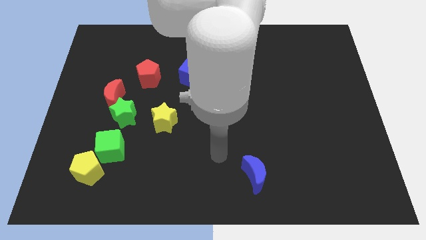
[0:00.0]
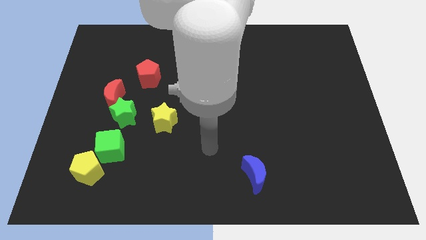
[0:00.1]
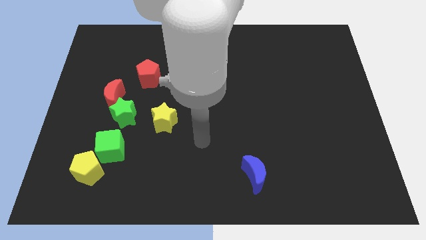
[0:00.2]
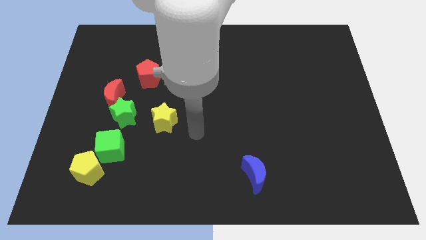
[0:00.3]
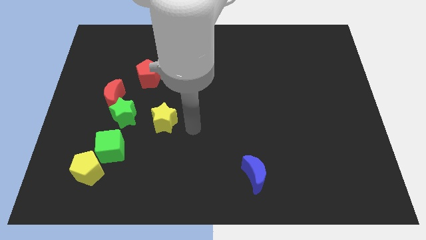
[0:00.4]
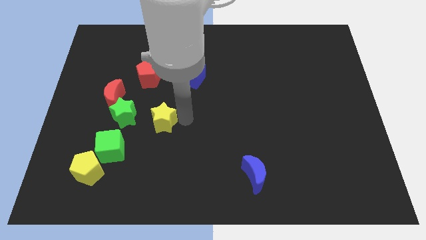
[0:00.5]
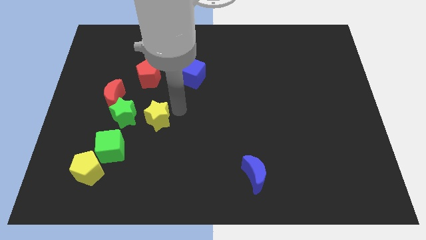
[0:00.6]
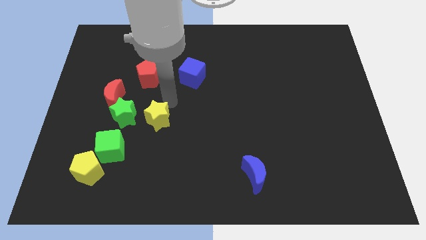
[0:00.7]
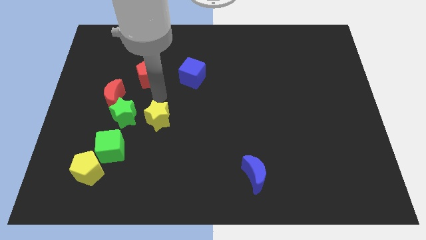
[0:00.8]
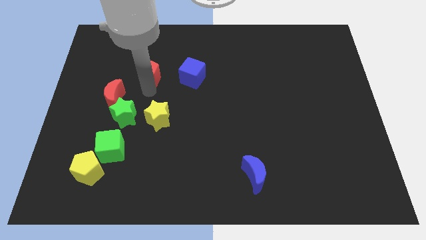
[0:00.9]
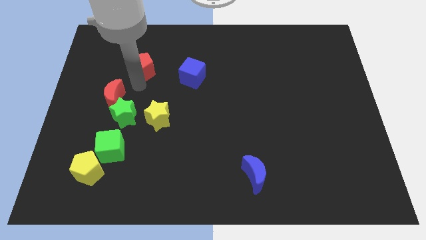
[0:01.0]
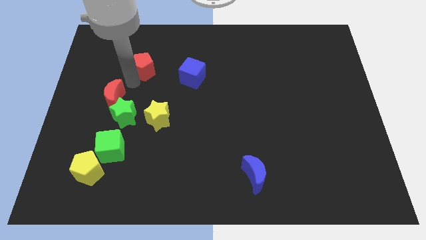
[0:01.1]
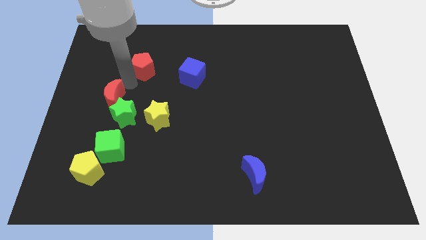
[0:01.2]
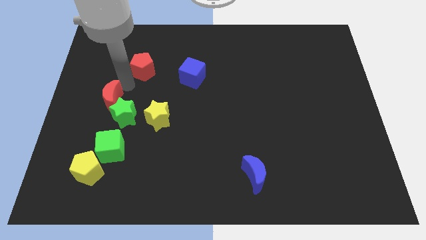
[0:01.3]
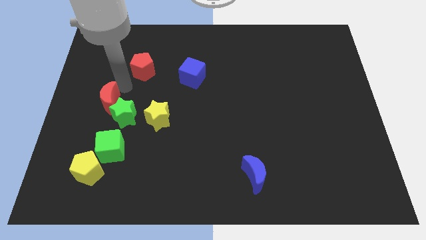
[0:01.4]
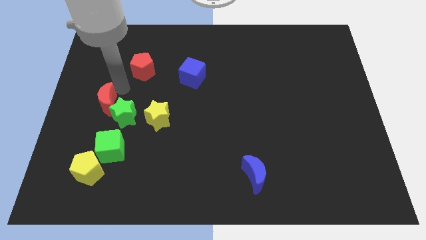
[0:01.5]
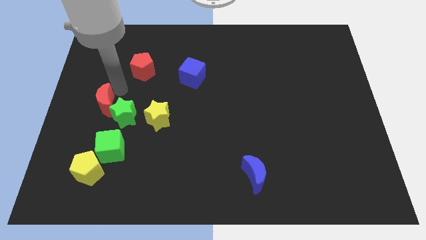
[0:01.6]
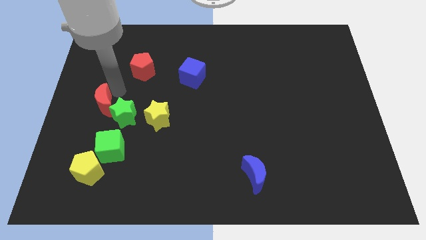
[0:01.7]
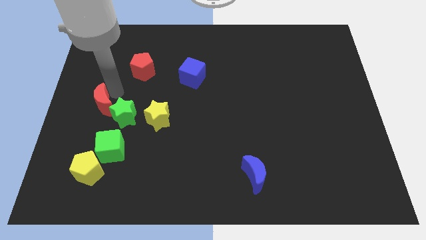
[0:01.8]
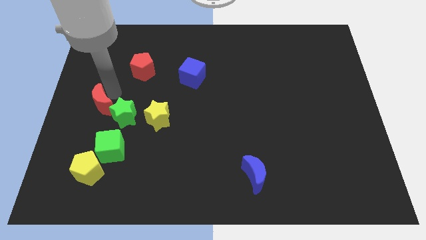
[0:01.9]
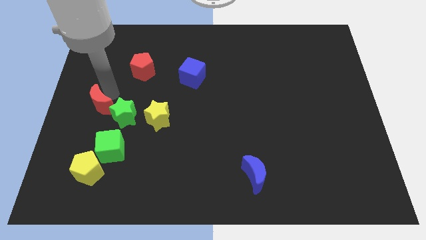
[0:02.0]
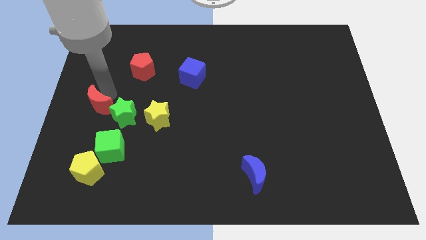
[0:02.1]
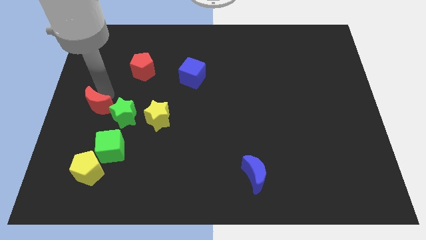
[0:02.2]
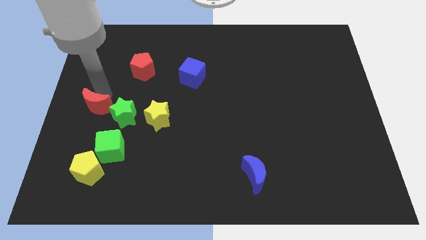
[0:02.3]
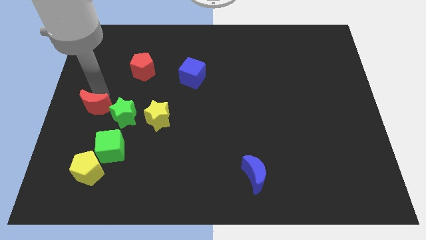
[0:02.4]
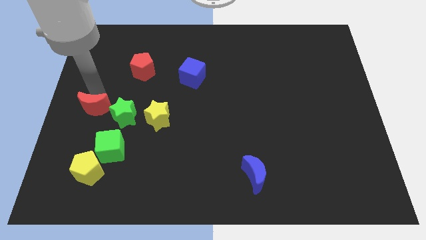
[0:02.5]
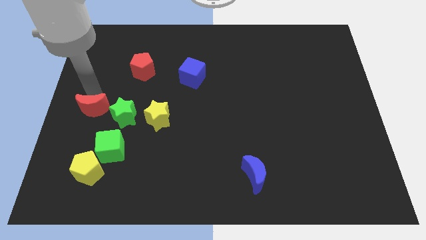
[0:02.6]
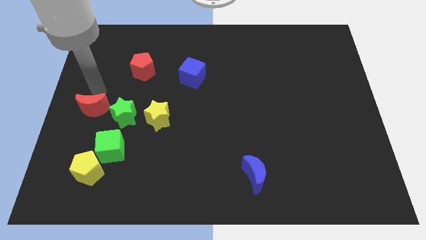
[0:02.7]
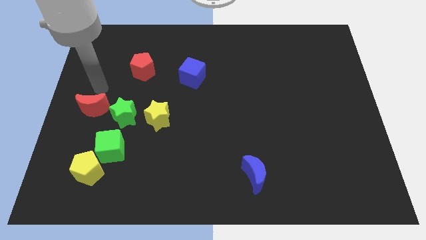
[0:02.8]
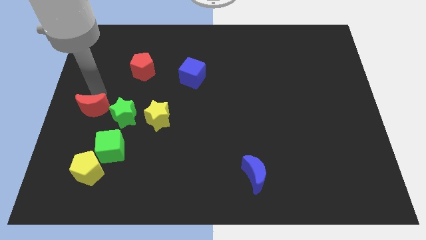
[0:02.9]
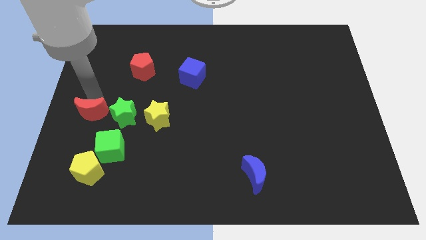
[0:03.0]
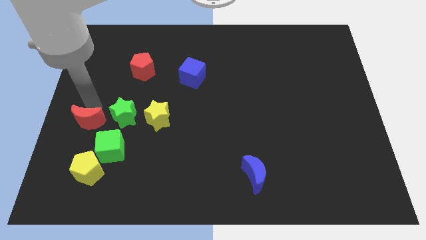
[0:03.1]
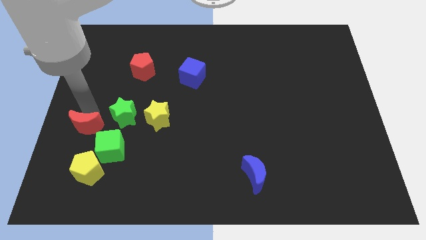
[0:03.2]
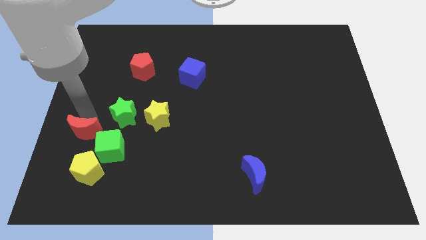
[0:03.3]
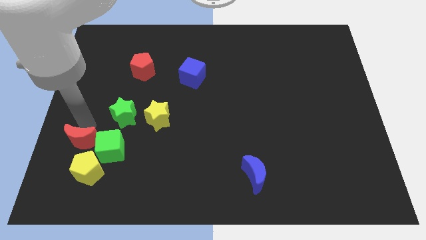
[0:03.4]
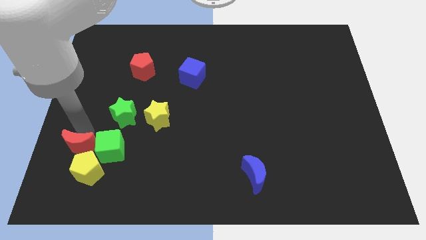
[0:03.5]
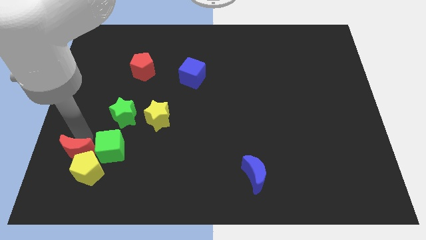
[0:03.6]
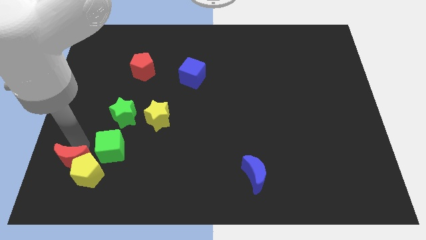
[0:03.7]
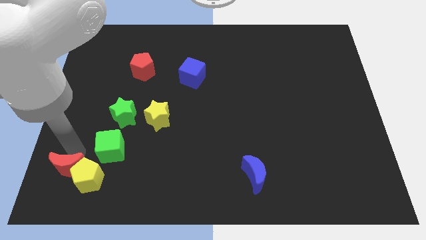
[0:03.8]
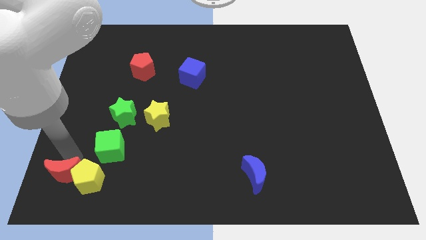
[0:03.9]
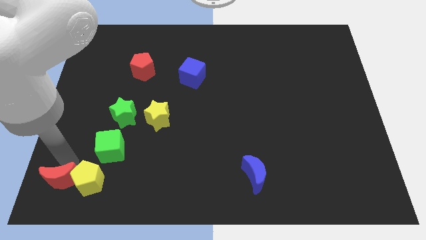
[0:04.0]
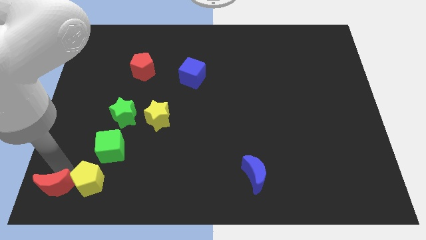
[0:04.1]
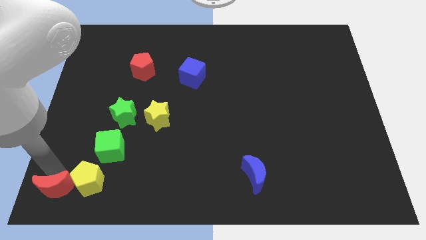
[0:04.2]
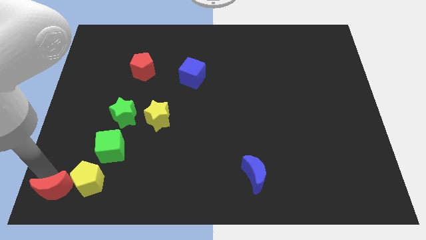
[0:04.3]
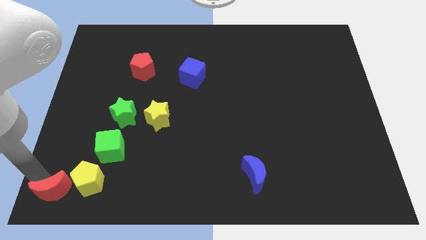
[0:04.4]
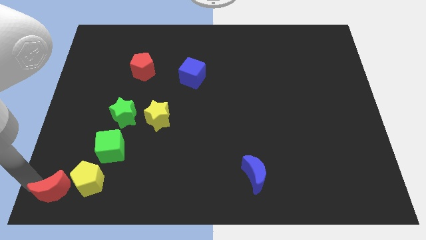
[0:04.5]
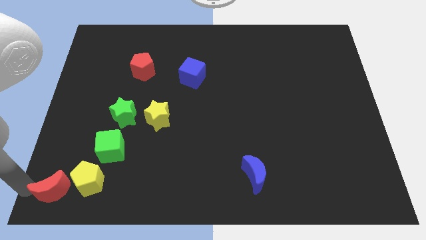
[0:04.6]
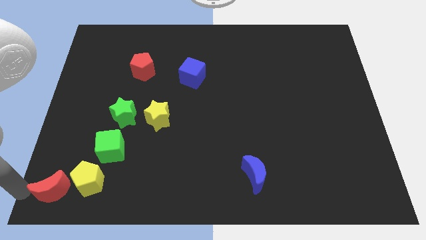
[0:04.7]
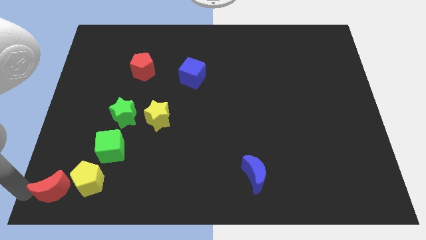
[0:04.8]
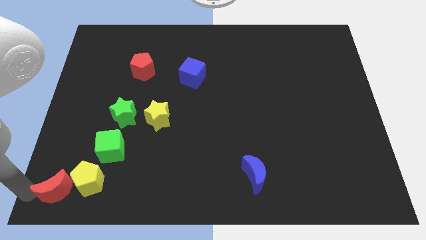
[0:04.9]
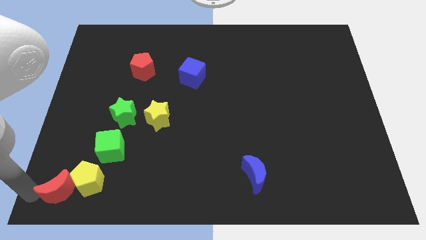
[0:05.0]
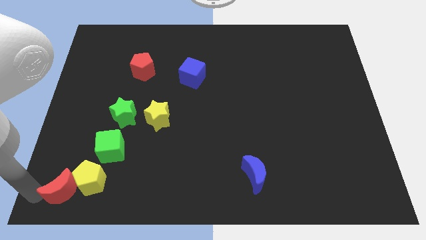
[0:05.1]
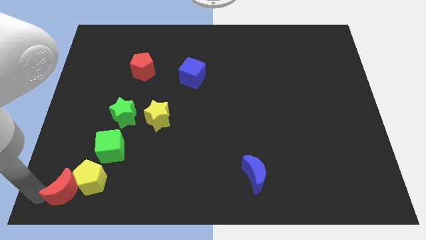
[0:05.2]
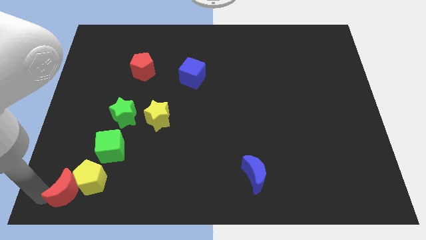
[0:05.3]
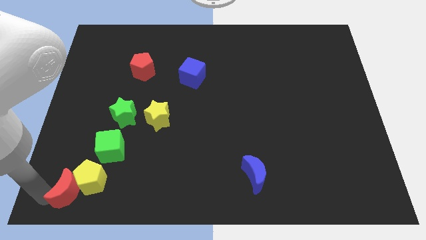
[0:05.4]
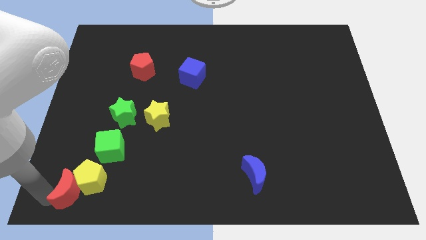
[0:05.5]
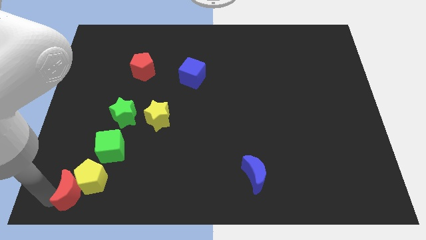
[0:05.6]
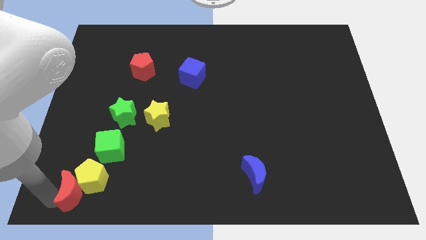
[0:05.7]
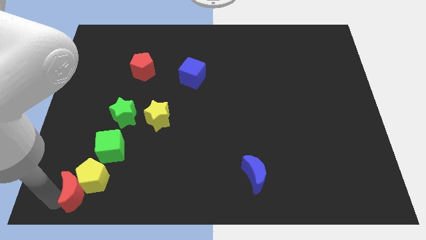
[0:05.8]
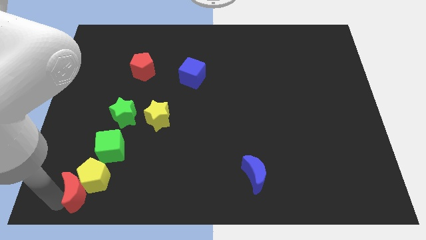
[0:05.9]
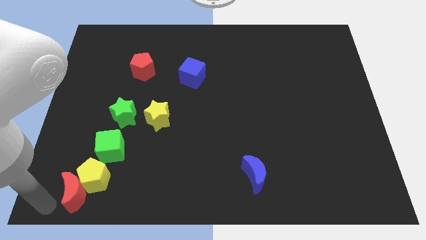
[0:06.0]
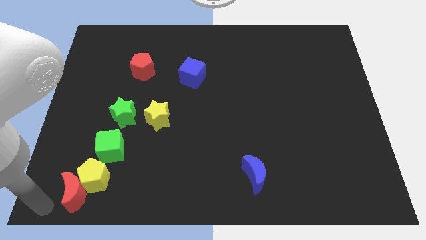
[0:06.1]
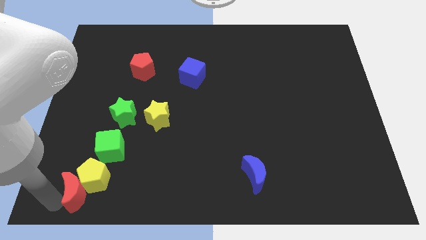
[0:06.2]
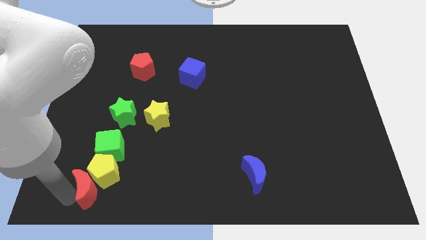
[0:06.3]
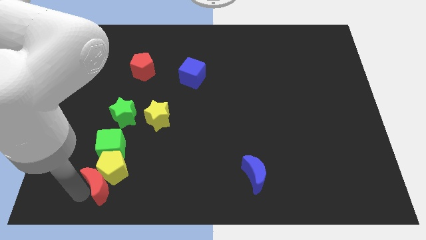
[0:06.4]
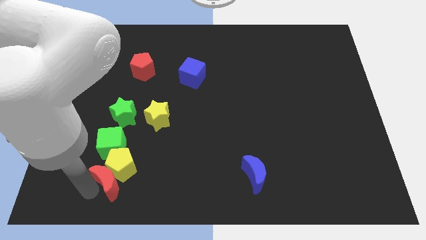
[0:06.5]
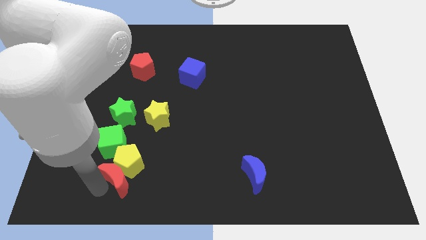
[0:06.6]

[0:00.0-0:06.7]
move the red moon to the bottom right of the green cube
